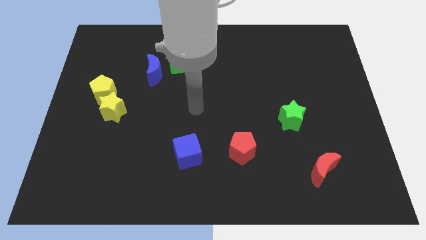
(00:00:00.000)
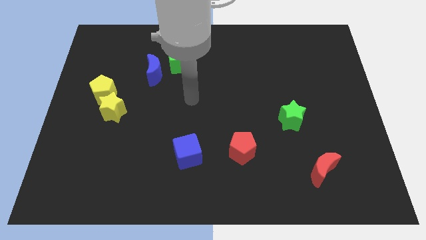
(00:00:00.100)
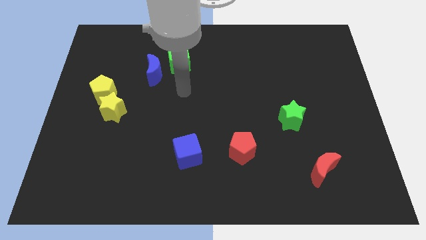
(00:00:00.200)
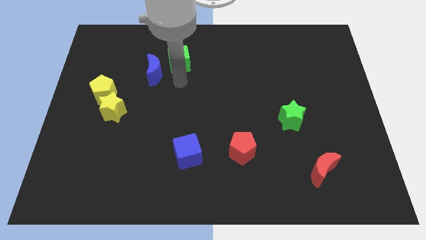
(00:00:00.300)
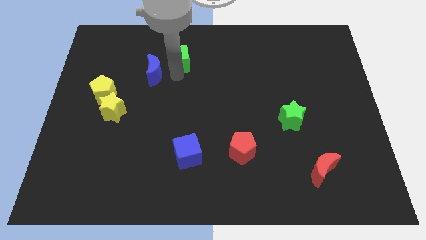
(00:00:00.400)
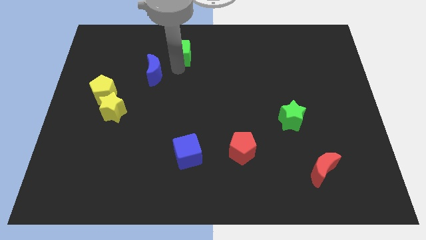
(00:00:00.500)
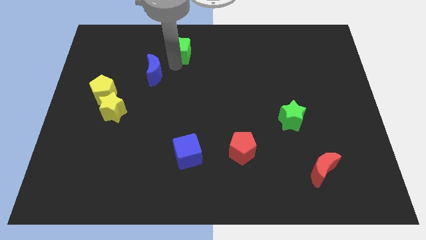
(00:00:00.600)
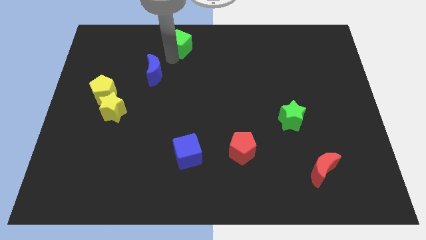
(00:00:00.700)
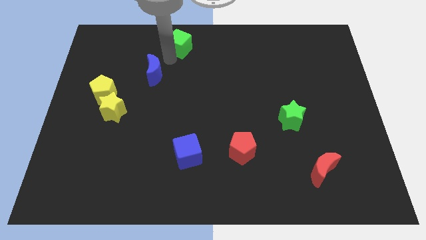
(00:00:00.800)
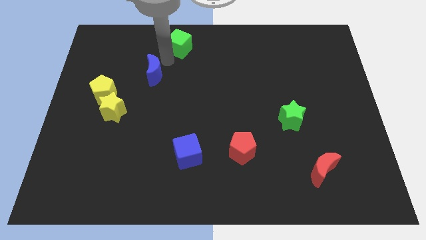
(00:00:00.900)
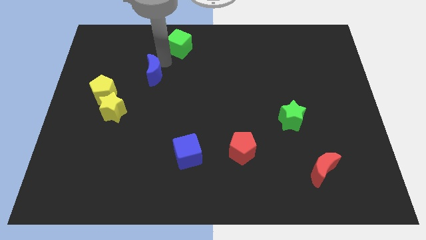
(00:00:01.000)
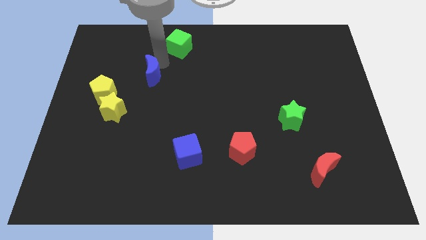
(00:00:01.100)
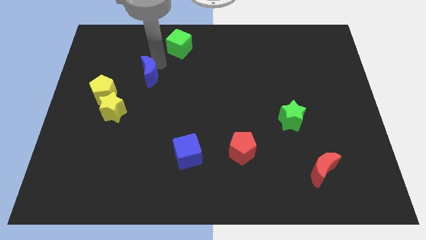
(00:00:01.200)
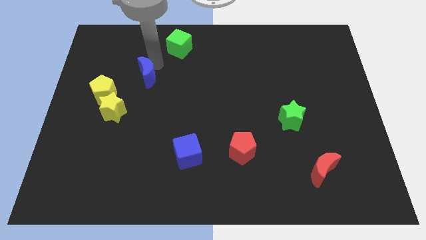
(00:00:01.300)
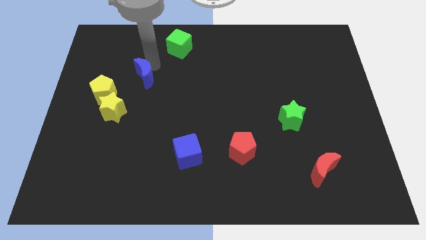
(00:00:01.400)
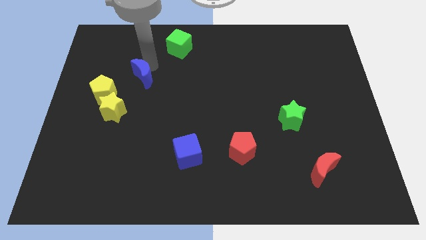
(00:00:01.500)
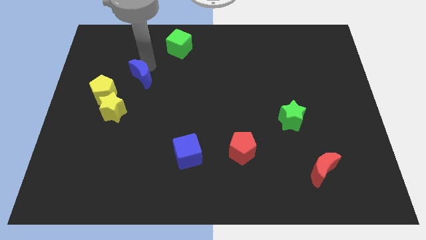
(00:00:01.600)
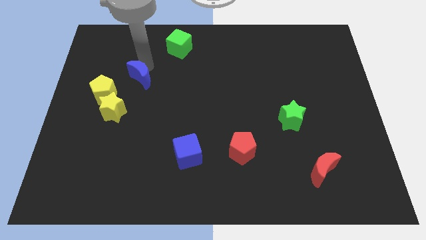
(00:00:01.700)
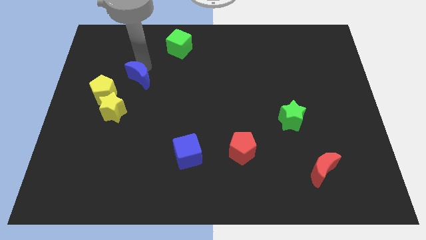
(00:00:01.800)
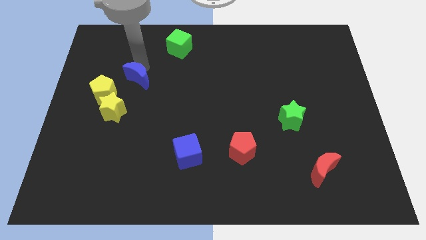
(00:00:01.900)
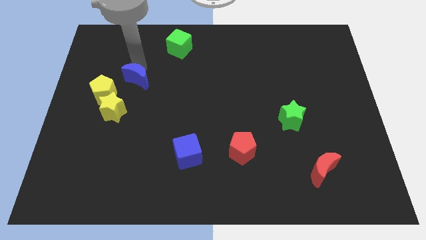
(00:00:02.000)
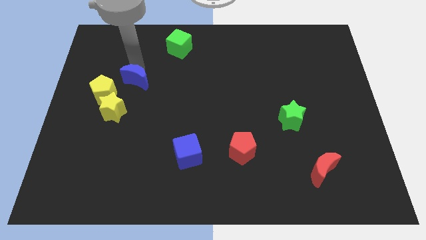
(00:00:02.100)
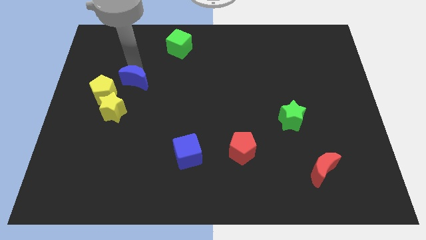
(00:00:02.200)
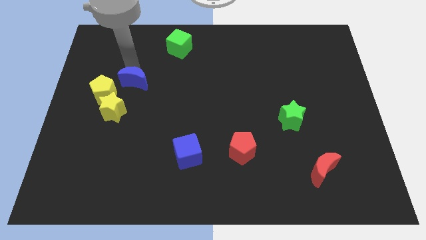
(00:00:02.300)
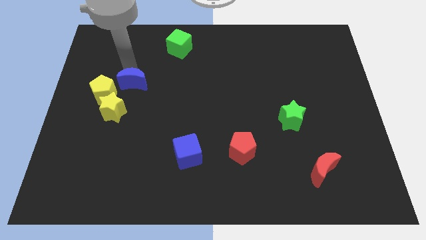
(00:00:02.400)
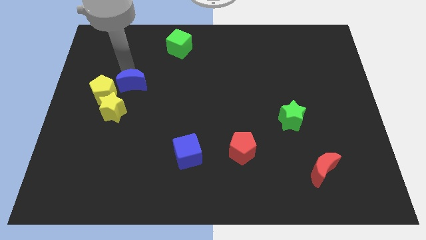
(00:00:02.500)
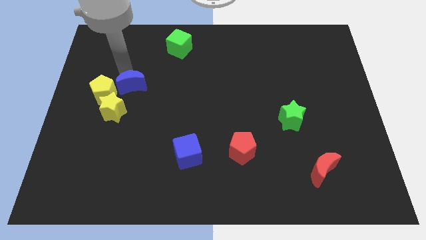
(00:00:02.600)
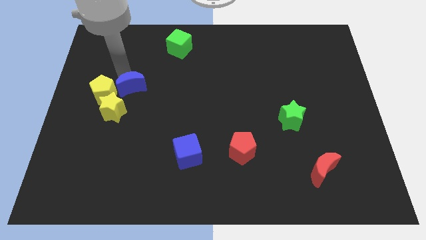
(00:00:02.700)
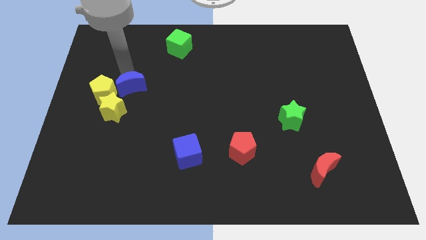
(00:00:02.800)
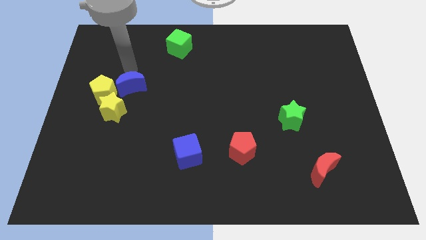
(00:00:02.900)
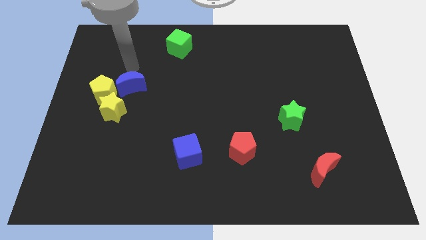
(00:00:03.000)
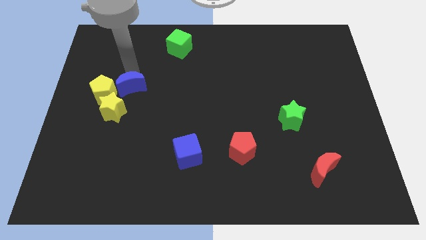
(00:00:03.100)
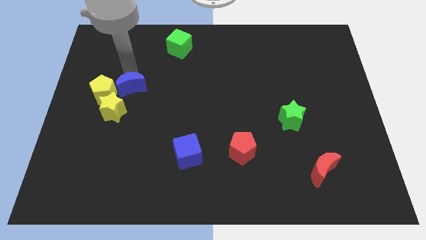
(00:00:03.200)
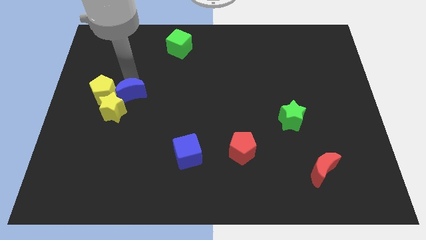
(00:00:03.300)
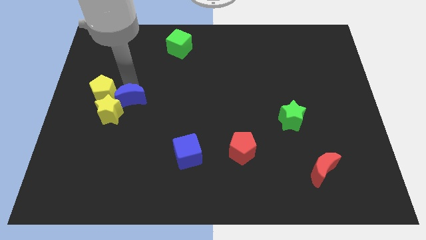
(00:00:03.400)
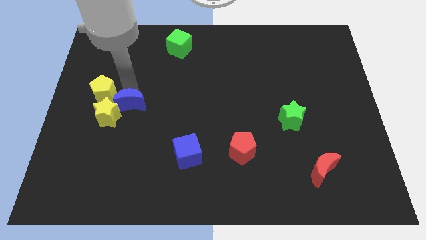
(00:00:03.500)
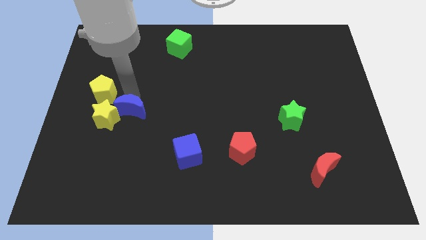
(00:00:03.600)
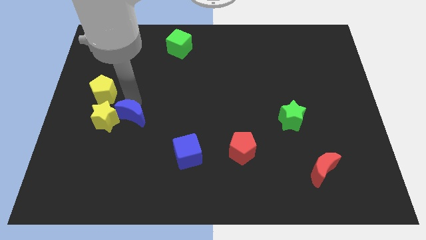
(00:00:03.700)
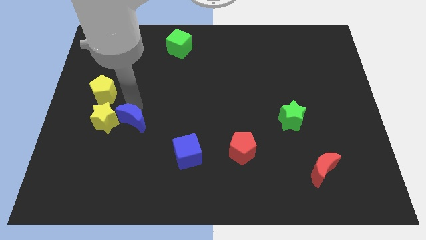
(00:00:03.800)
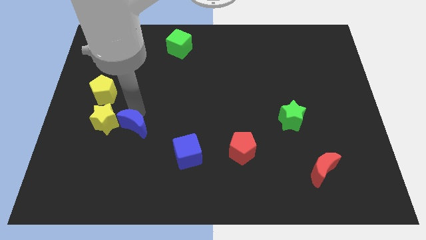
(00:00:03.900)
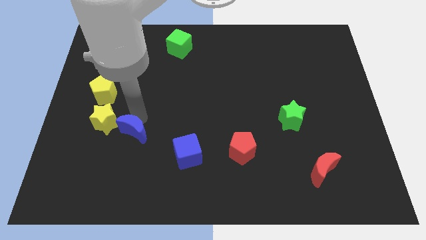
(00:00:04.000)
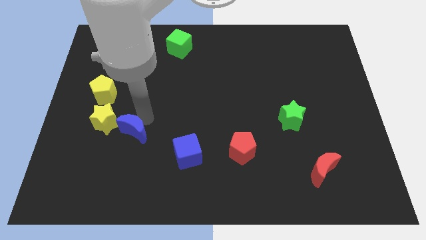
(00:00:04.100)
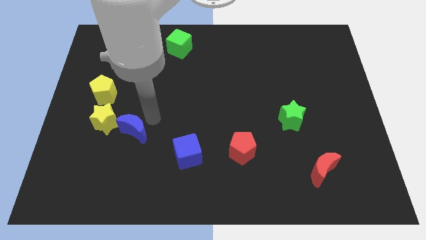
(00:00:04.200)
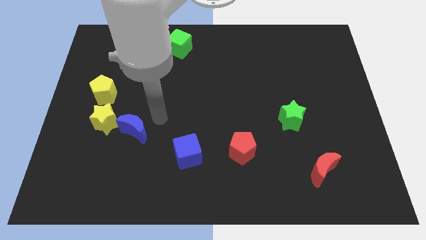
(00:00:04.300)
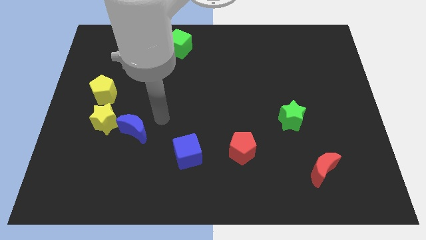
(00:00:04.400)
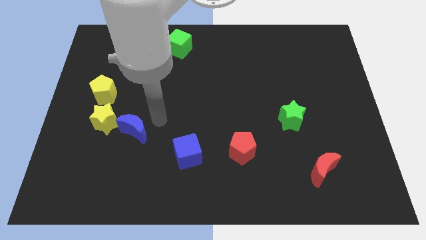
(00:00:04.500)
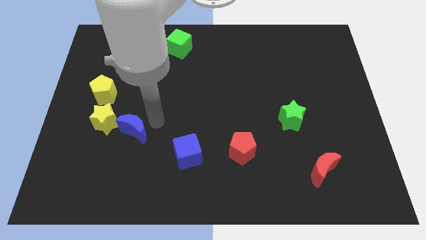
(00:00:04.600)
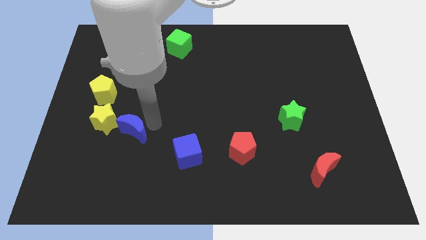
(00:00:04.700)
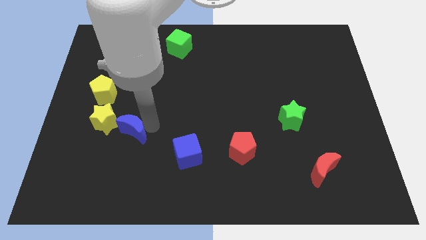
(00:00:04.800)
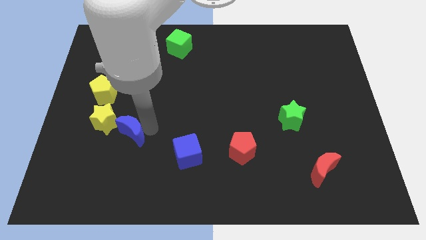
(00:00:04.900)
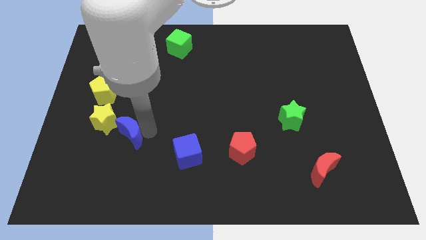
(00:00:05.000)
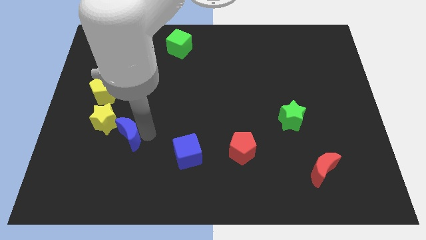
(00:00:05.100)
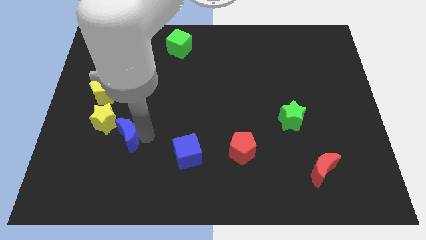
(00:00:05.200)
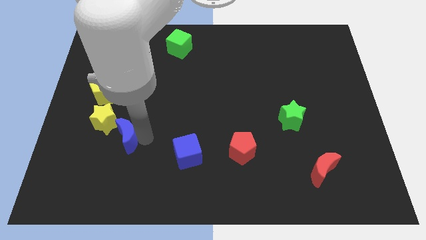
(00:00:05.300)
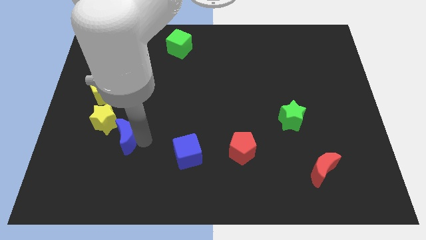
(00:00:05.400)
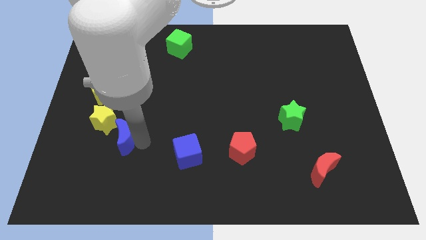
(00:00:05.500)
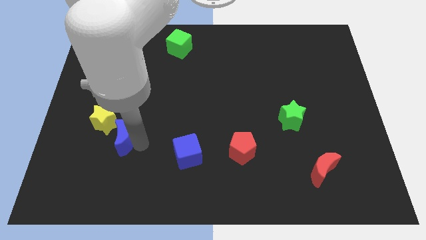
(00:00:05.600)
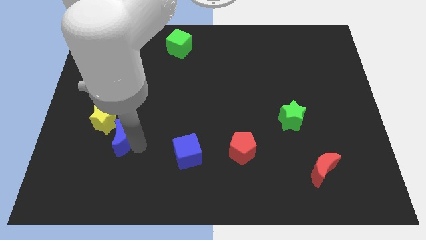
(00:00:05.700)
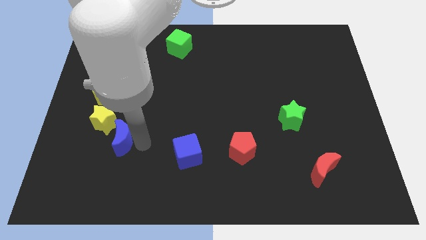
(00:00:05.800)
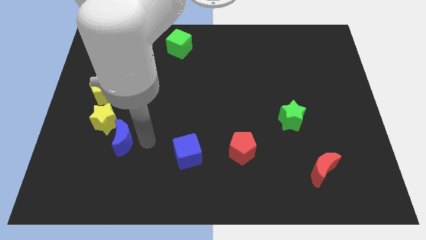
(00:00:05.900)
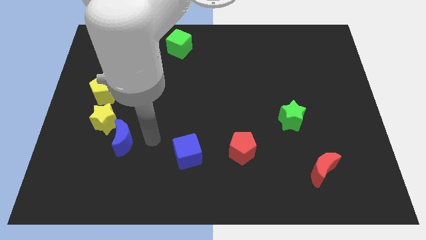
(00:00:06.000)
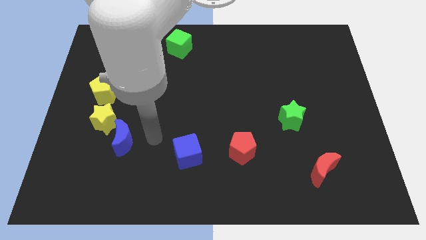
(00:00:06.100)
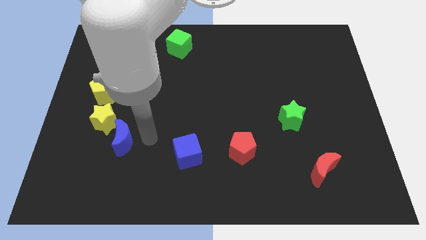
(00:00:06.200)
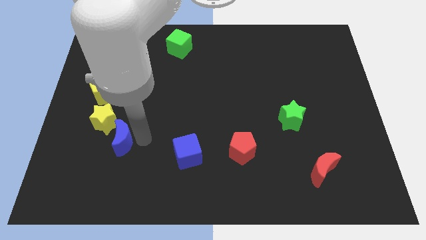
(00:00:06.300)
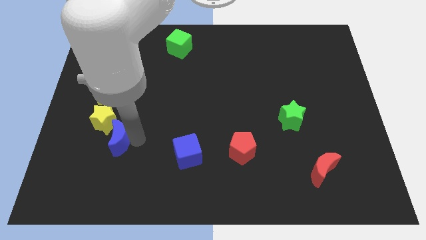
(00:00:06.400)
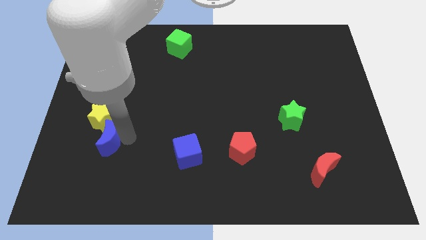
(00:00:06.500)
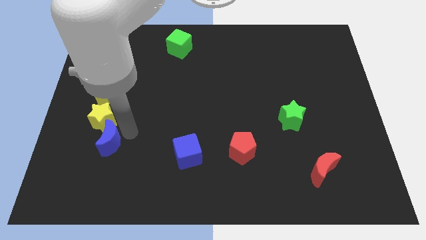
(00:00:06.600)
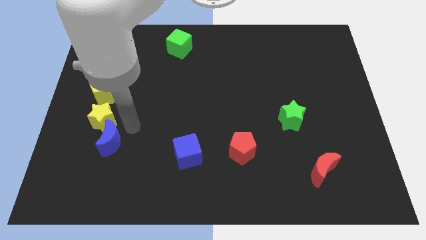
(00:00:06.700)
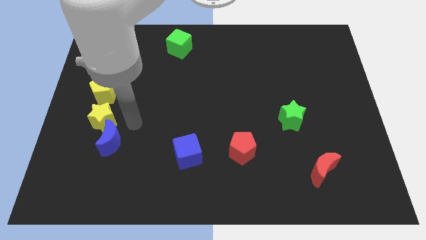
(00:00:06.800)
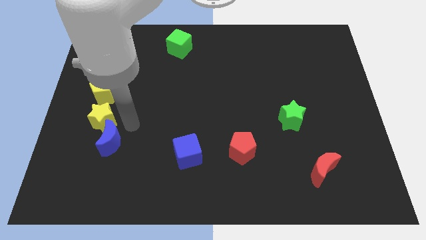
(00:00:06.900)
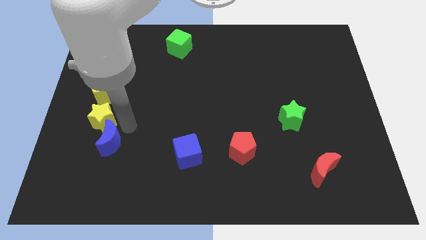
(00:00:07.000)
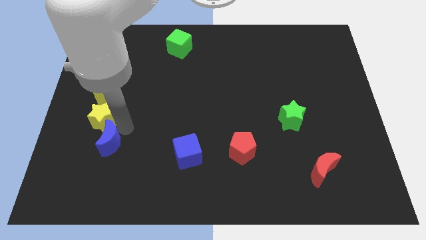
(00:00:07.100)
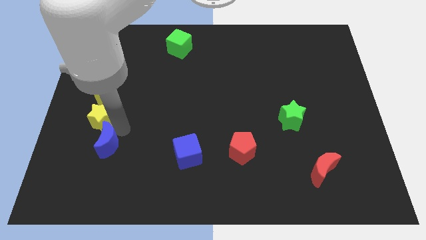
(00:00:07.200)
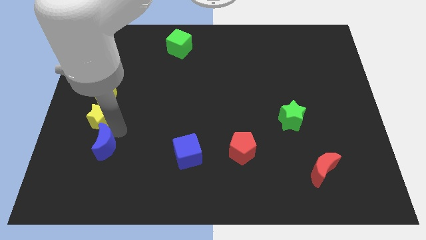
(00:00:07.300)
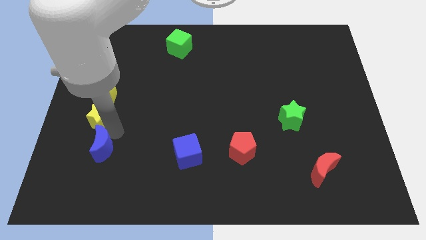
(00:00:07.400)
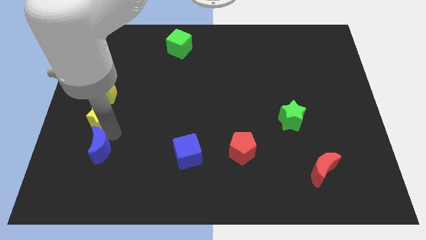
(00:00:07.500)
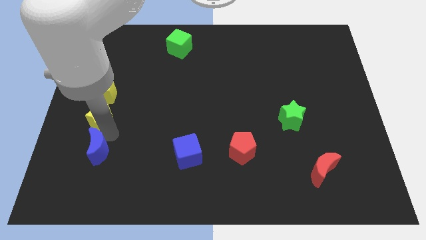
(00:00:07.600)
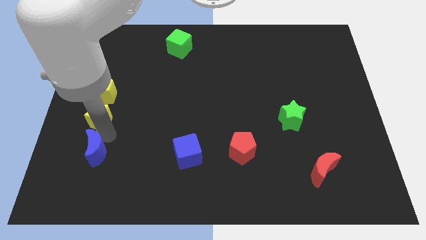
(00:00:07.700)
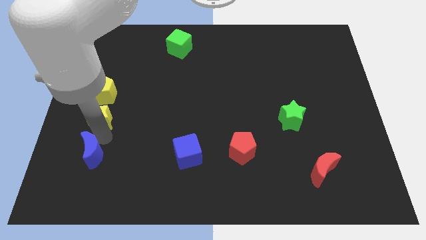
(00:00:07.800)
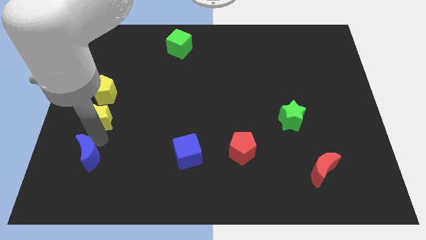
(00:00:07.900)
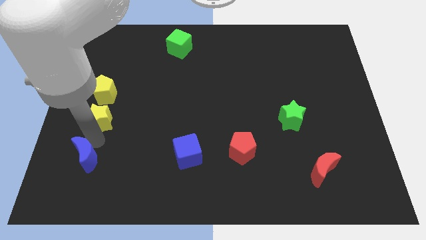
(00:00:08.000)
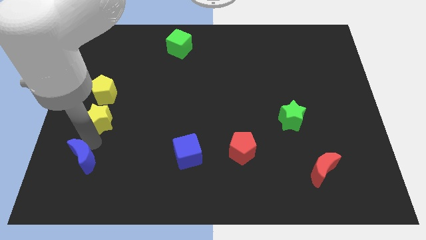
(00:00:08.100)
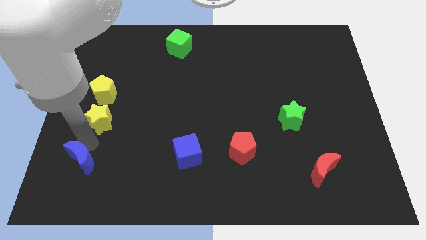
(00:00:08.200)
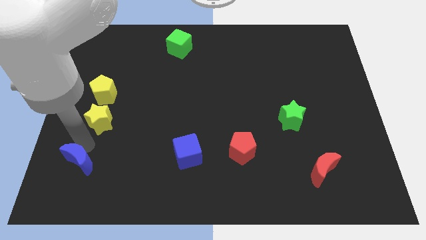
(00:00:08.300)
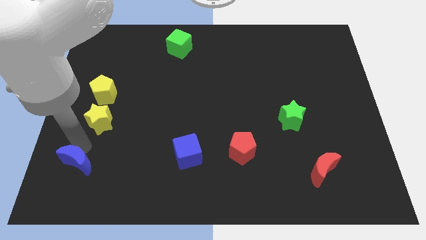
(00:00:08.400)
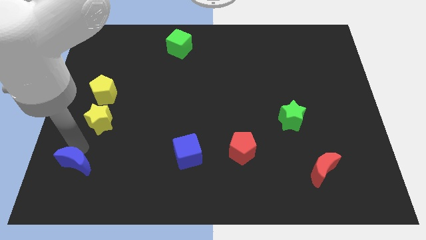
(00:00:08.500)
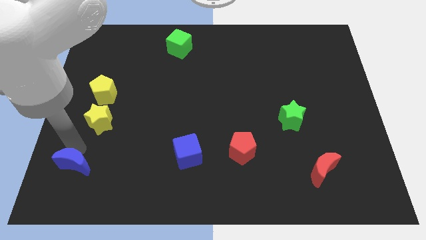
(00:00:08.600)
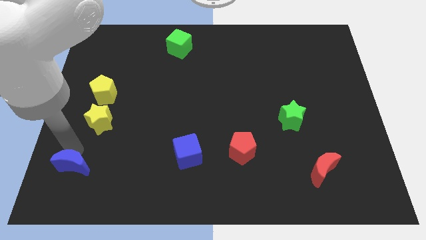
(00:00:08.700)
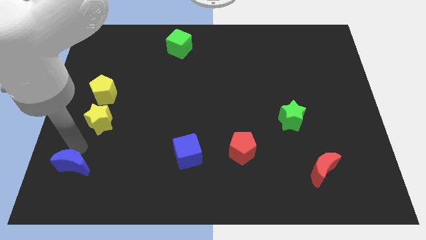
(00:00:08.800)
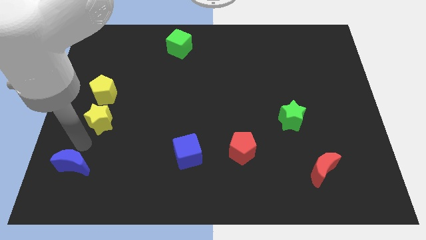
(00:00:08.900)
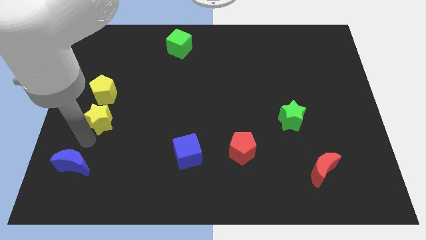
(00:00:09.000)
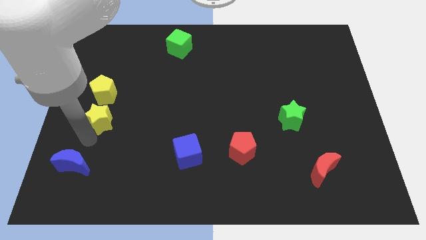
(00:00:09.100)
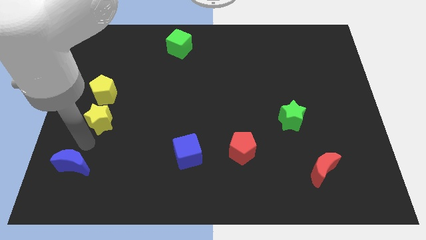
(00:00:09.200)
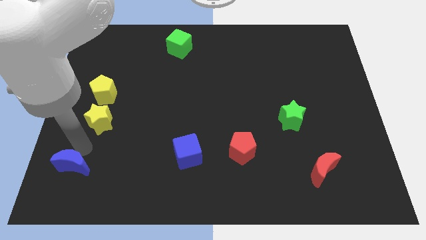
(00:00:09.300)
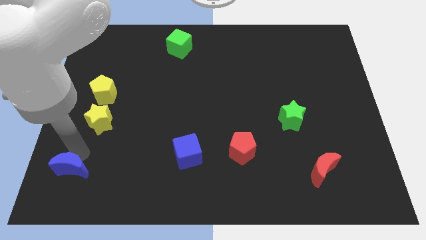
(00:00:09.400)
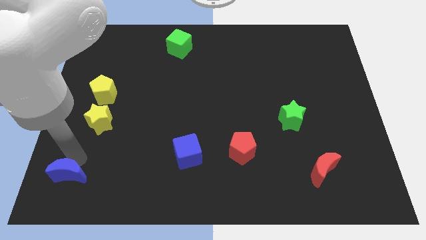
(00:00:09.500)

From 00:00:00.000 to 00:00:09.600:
put the blue moon to the bottom left
